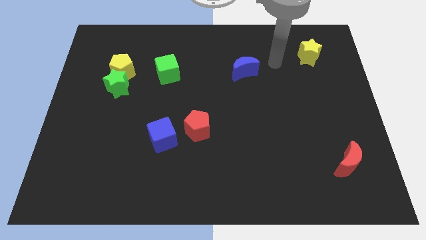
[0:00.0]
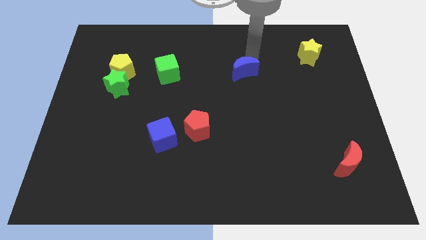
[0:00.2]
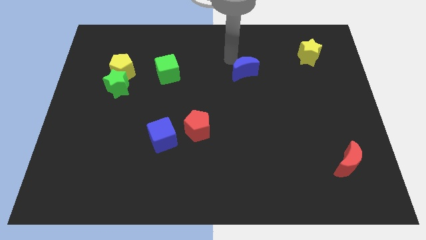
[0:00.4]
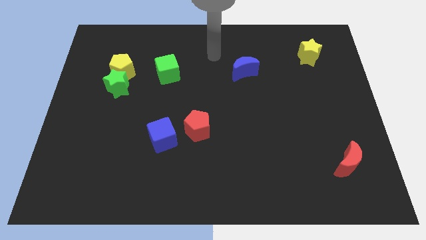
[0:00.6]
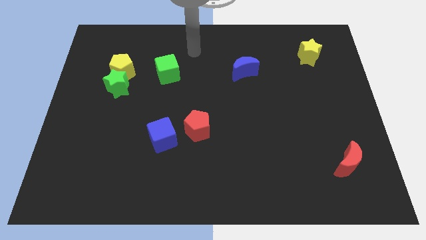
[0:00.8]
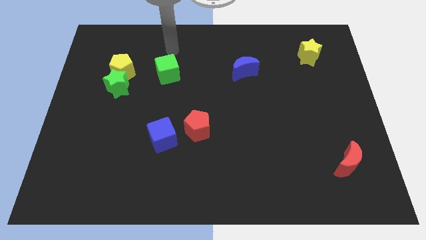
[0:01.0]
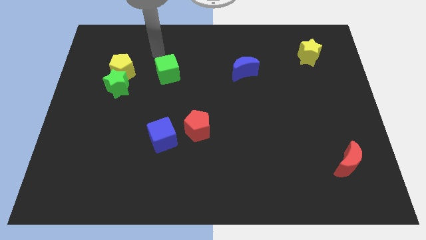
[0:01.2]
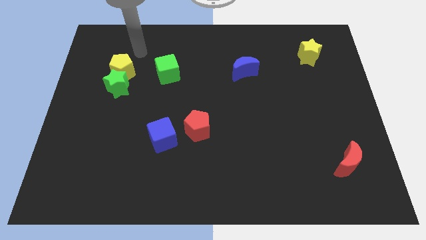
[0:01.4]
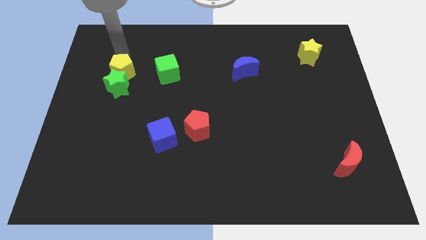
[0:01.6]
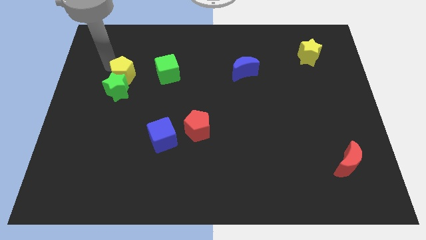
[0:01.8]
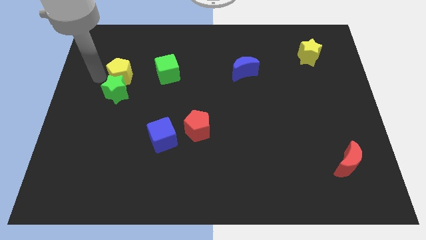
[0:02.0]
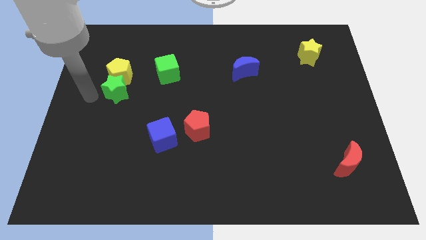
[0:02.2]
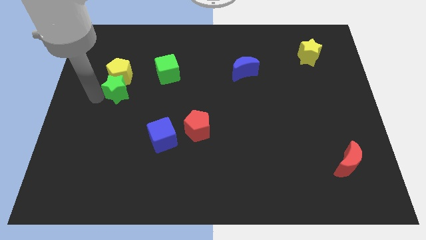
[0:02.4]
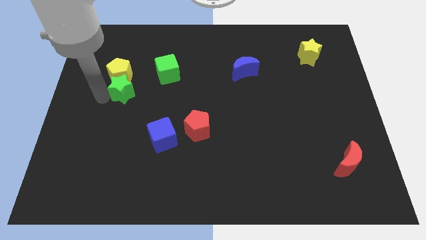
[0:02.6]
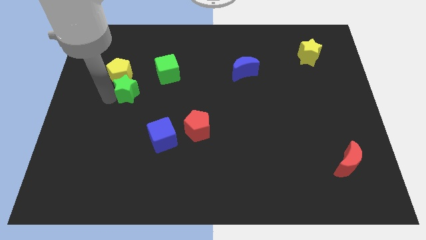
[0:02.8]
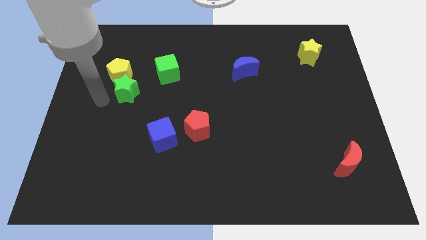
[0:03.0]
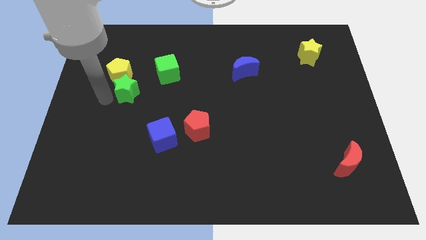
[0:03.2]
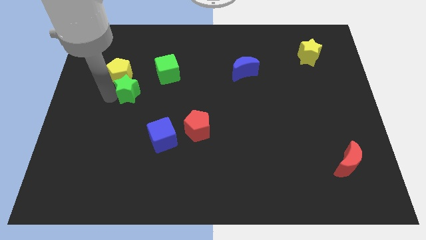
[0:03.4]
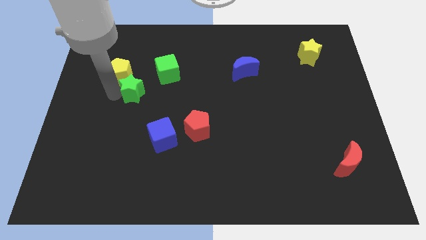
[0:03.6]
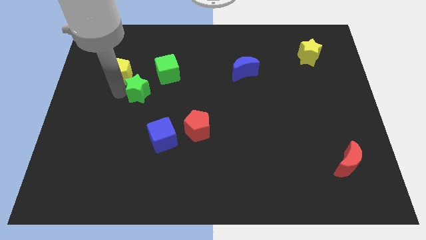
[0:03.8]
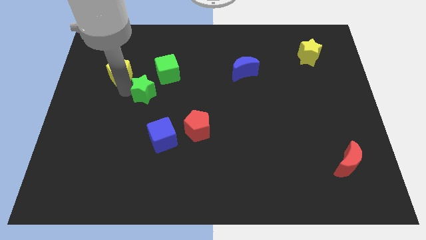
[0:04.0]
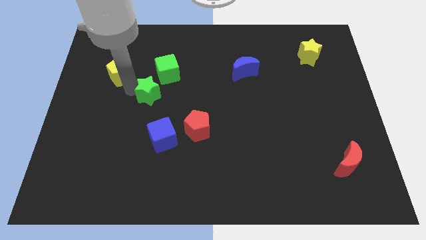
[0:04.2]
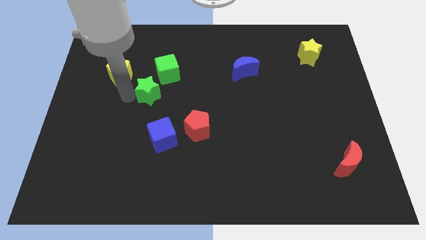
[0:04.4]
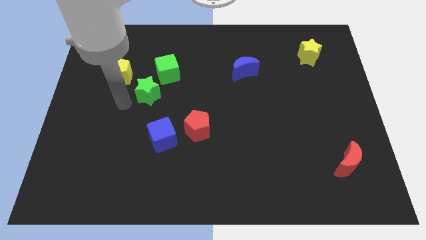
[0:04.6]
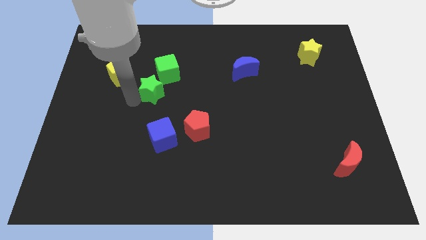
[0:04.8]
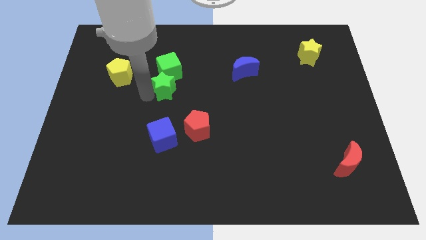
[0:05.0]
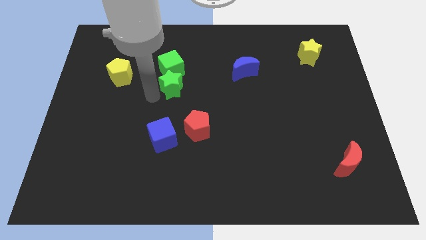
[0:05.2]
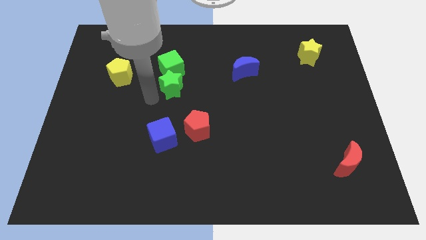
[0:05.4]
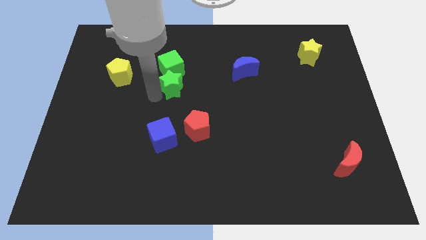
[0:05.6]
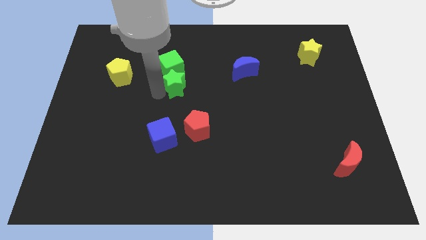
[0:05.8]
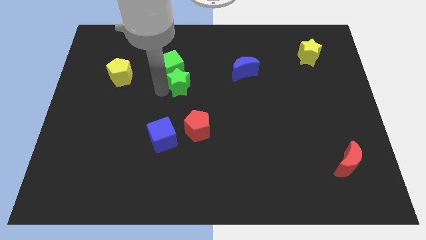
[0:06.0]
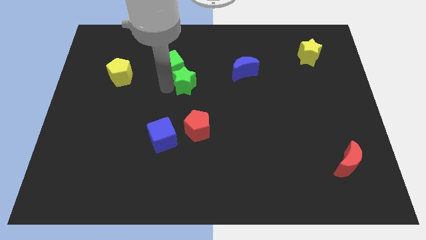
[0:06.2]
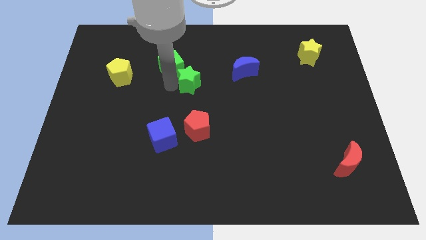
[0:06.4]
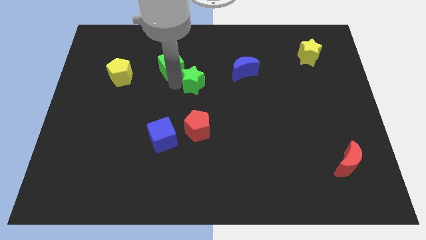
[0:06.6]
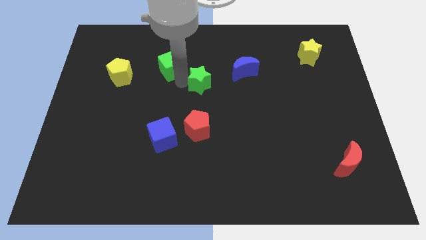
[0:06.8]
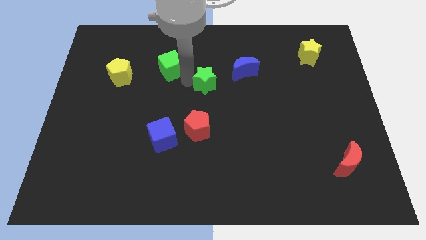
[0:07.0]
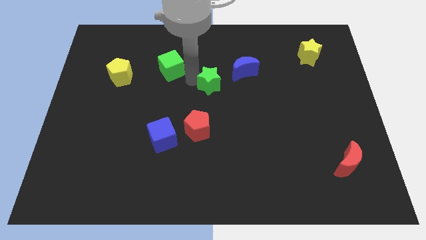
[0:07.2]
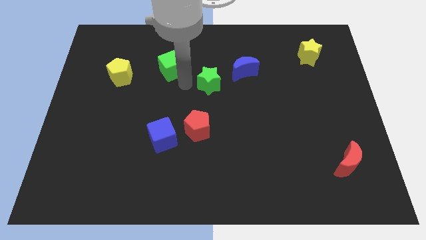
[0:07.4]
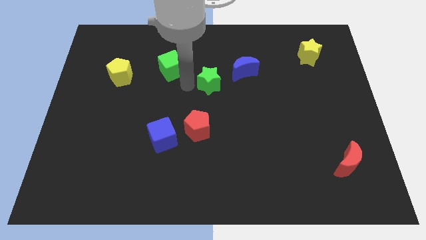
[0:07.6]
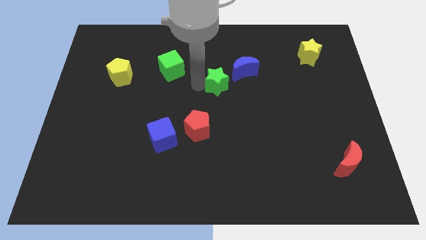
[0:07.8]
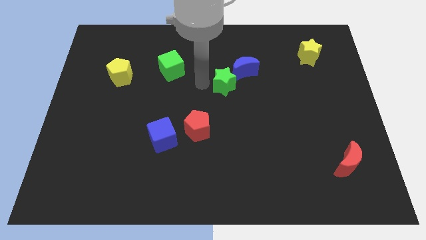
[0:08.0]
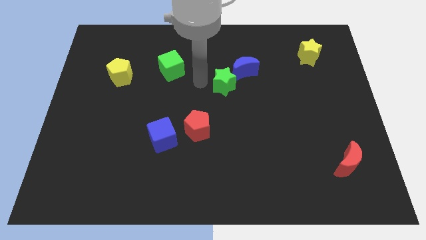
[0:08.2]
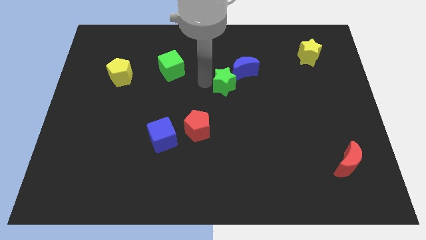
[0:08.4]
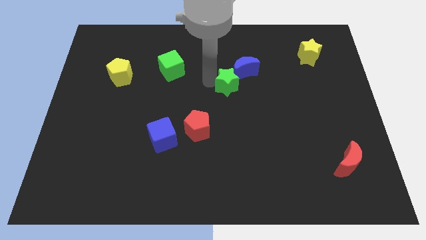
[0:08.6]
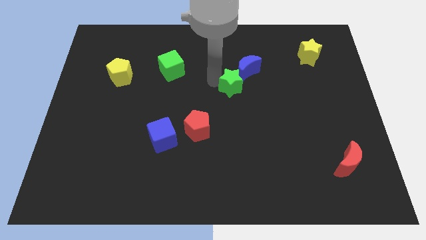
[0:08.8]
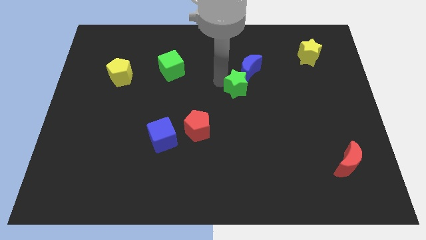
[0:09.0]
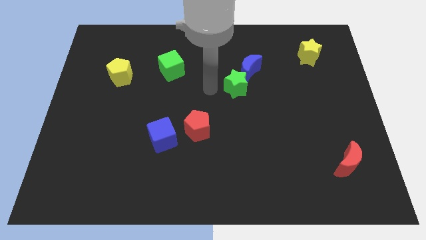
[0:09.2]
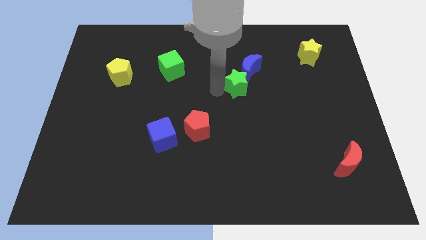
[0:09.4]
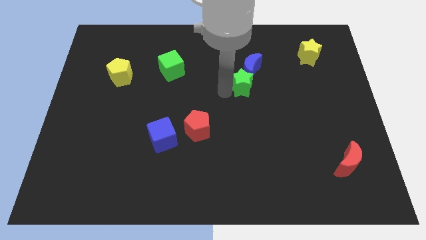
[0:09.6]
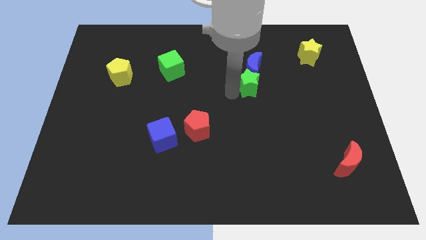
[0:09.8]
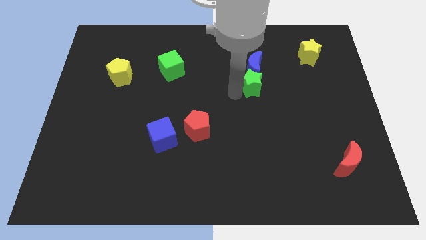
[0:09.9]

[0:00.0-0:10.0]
slide the green star to the bottom right of the blue moon

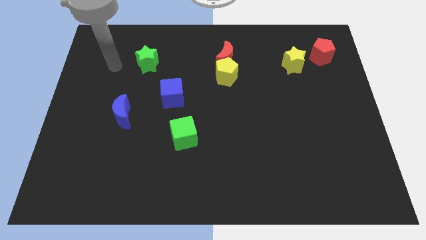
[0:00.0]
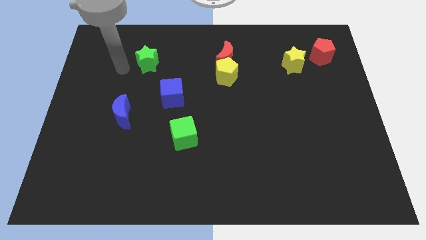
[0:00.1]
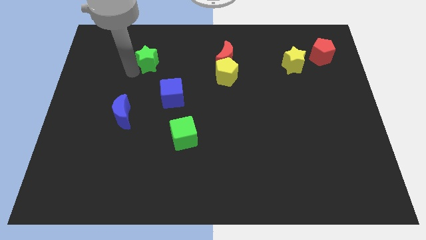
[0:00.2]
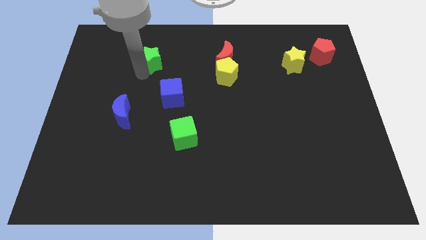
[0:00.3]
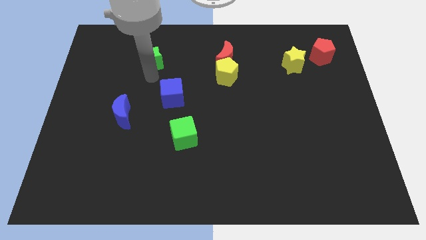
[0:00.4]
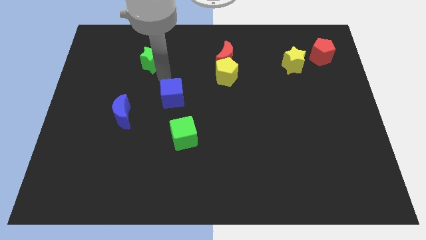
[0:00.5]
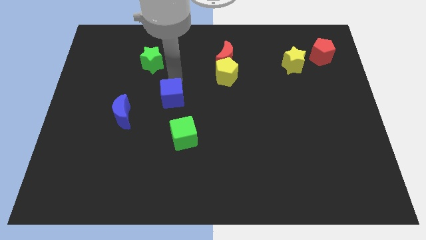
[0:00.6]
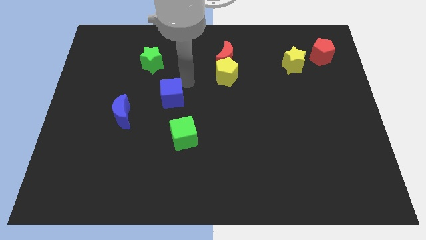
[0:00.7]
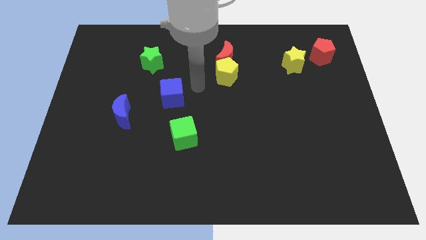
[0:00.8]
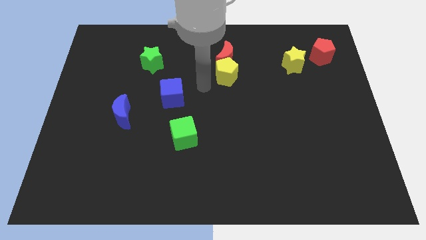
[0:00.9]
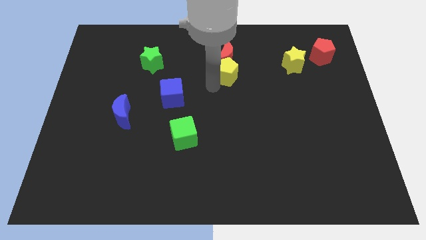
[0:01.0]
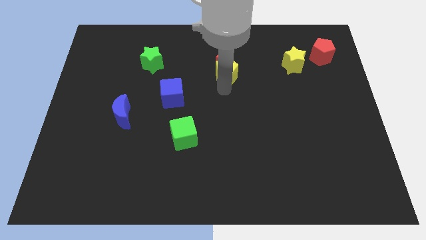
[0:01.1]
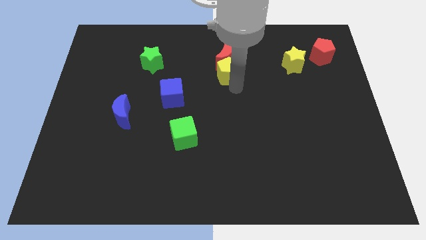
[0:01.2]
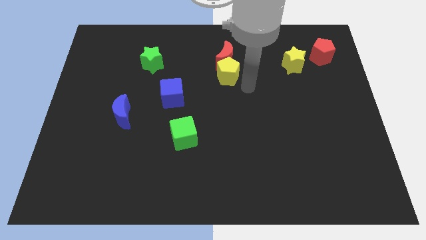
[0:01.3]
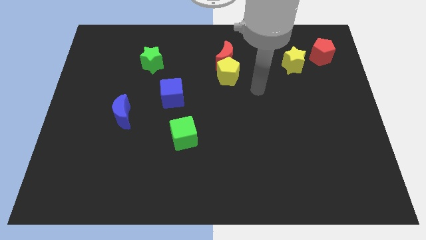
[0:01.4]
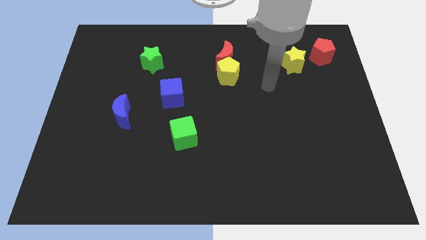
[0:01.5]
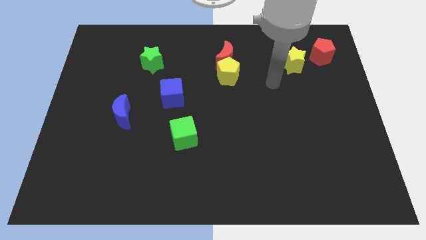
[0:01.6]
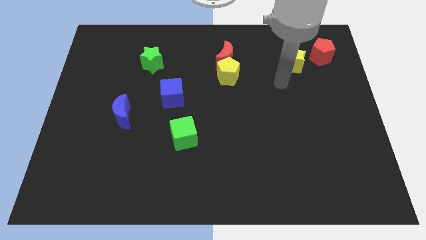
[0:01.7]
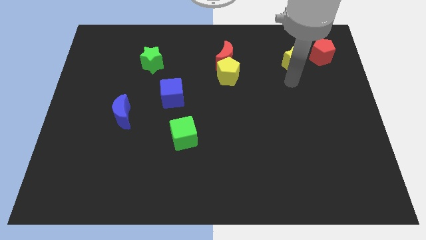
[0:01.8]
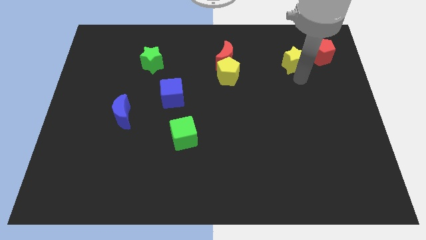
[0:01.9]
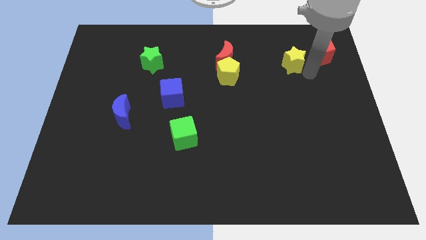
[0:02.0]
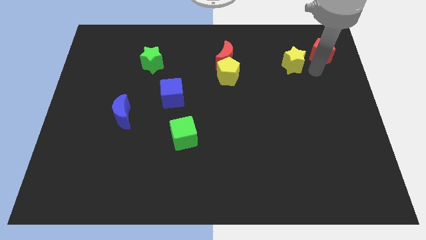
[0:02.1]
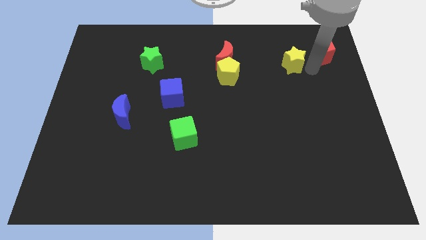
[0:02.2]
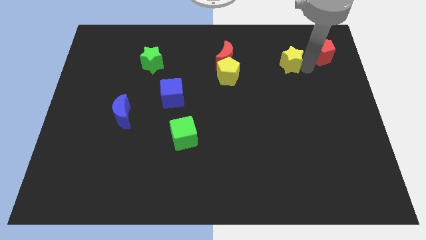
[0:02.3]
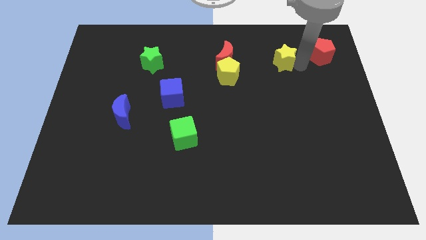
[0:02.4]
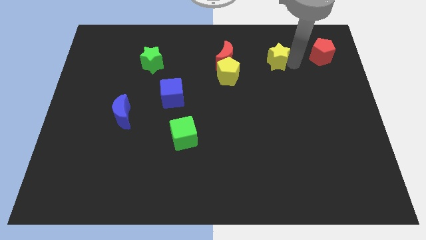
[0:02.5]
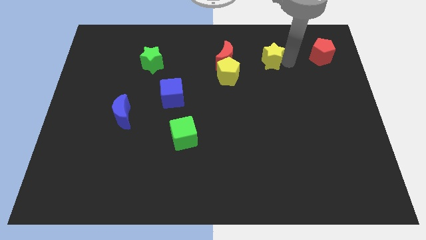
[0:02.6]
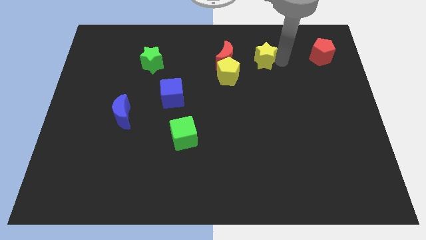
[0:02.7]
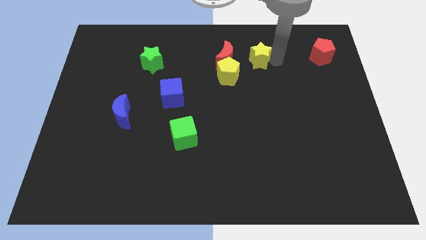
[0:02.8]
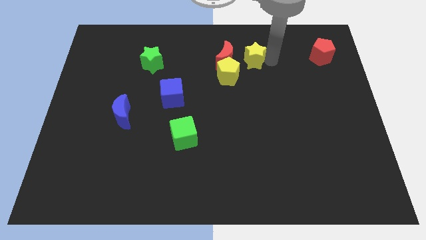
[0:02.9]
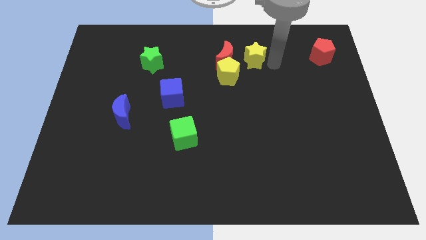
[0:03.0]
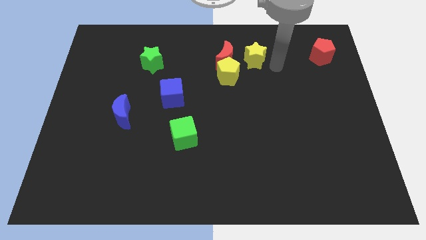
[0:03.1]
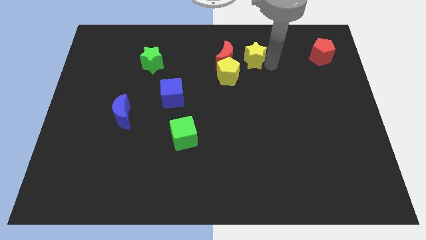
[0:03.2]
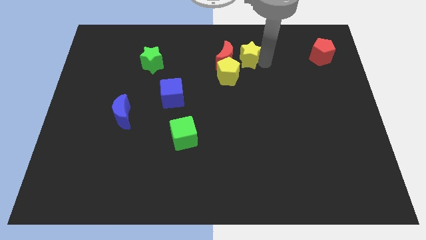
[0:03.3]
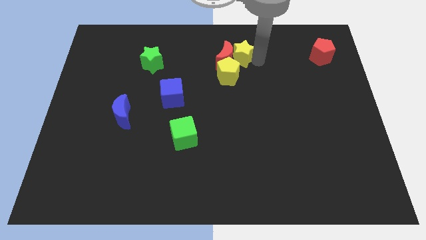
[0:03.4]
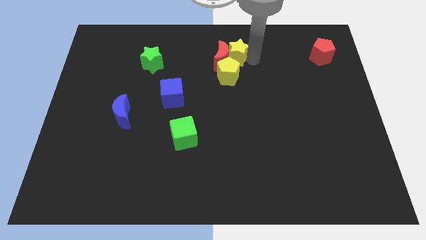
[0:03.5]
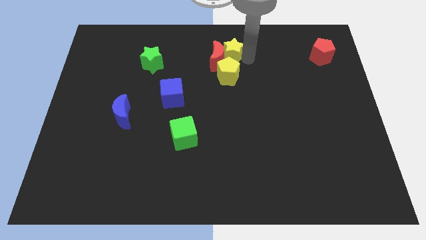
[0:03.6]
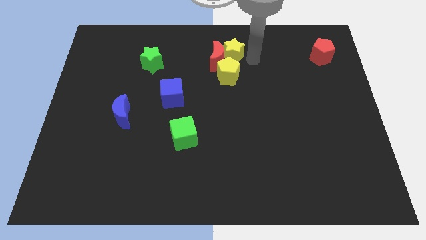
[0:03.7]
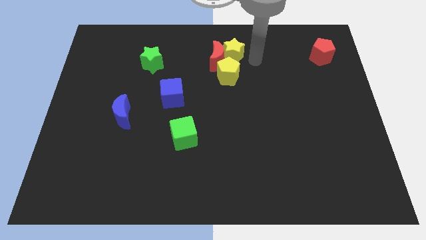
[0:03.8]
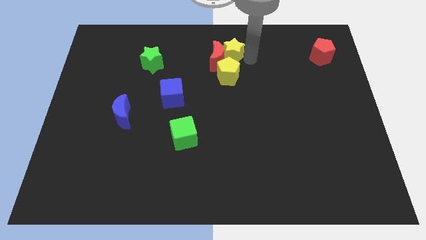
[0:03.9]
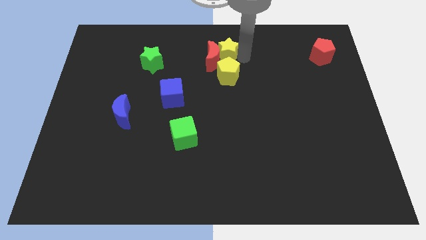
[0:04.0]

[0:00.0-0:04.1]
slide the yellow star to the top left side of the yellow pentagon
